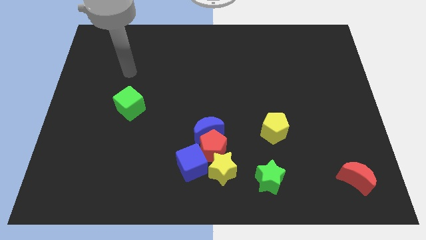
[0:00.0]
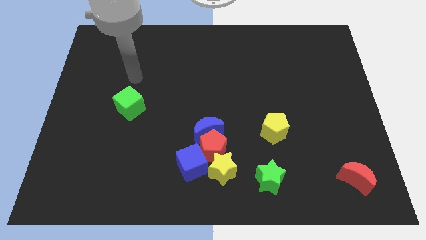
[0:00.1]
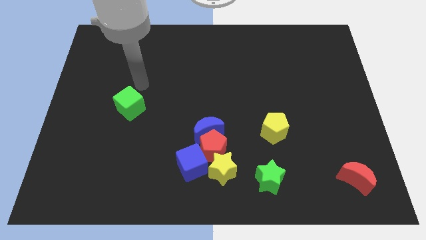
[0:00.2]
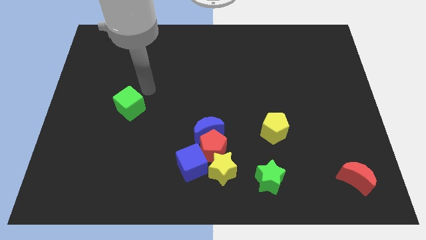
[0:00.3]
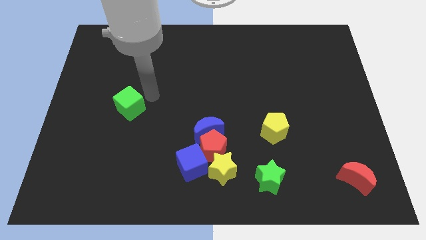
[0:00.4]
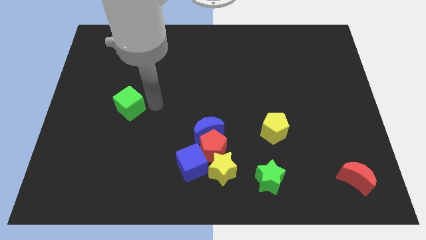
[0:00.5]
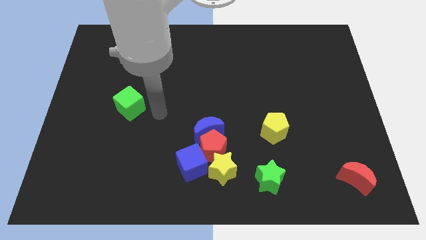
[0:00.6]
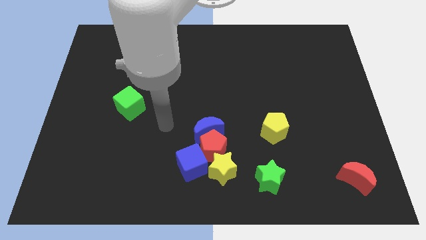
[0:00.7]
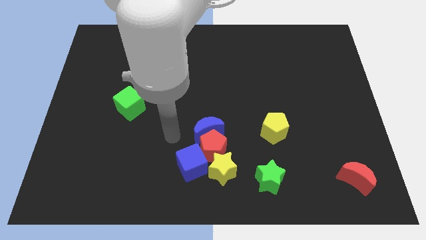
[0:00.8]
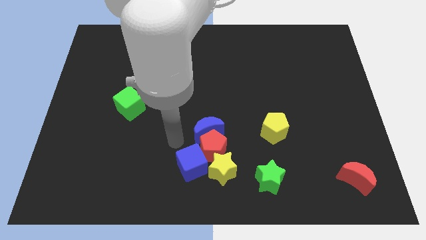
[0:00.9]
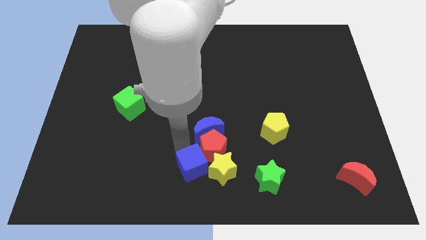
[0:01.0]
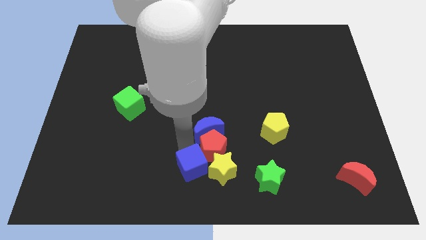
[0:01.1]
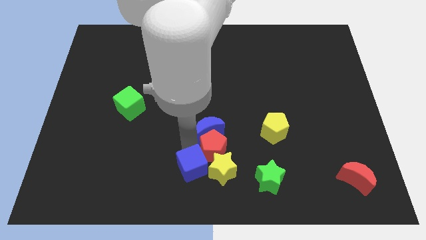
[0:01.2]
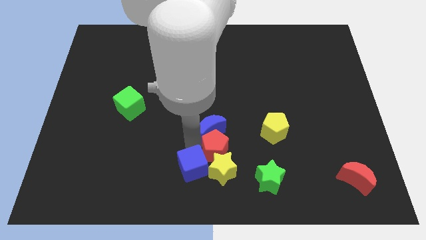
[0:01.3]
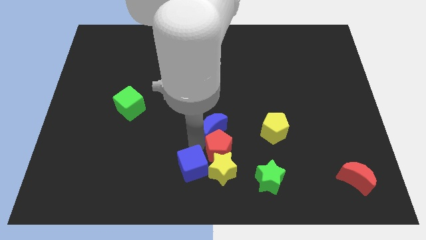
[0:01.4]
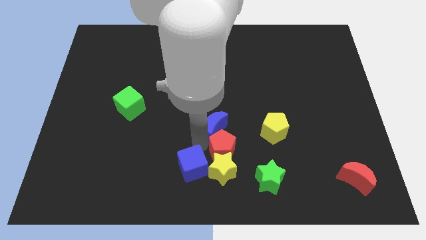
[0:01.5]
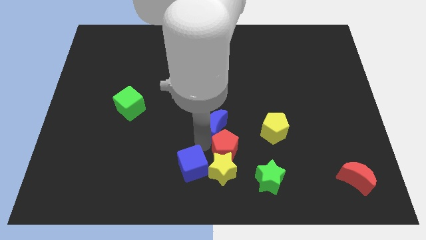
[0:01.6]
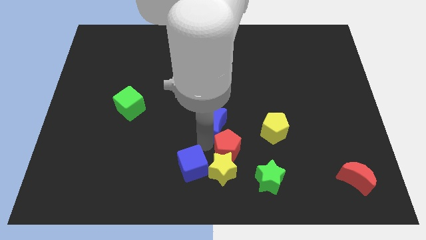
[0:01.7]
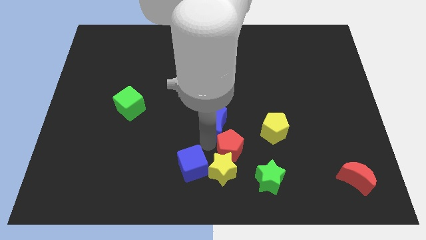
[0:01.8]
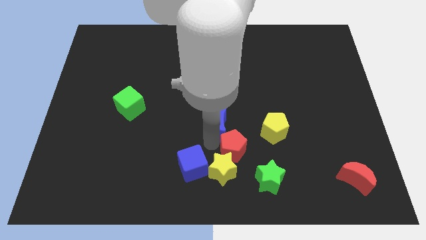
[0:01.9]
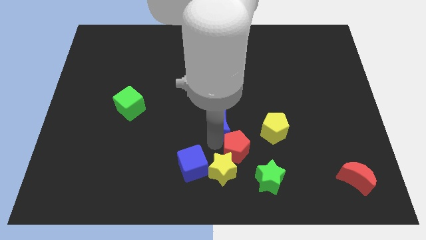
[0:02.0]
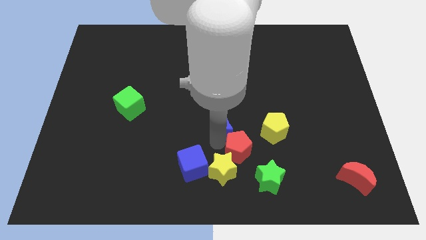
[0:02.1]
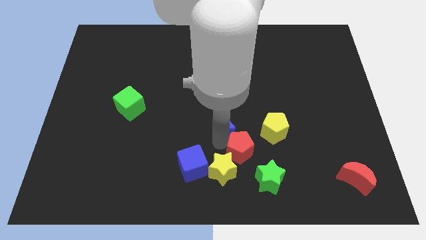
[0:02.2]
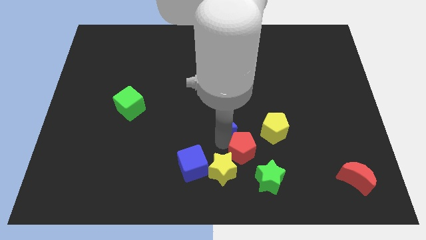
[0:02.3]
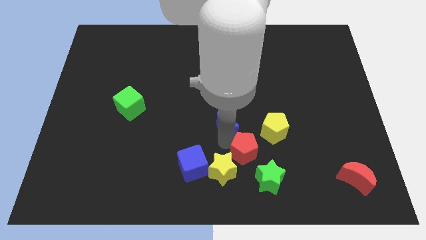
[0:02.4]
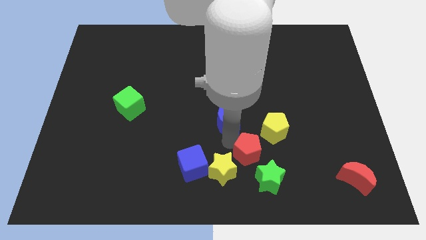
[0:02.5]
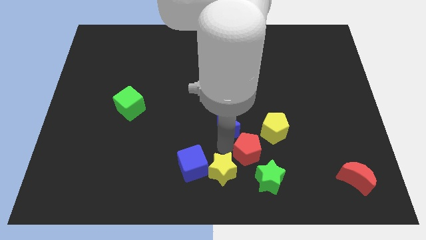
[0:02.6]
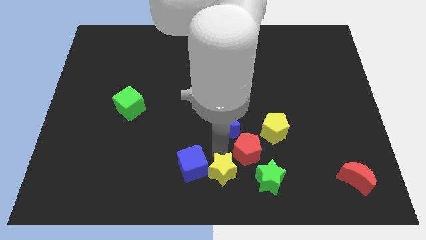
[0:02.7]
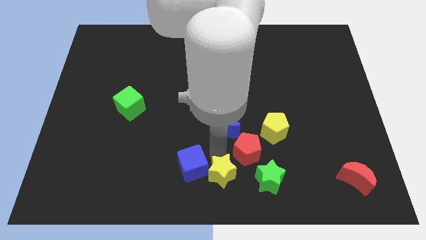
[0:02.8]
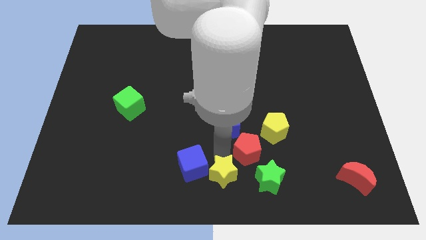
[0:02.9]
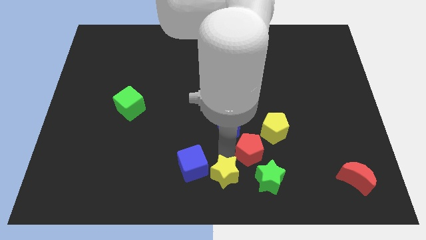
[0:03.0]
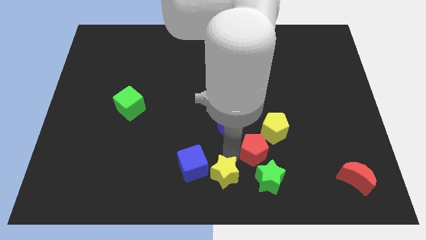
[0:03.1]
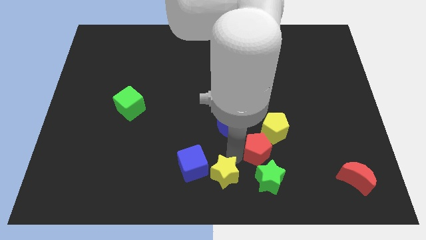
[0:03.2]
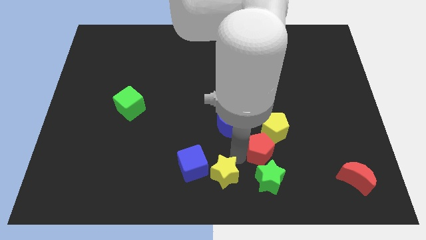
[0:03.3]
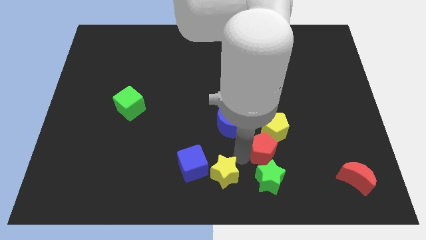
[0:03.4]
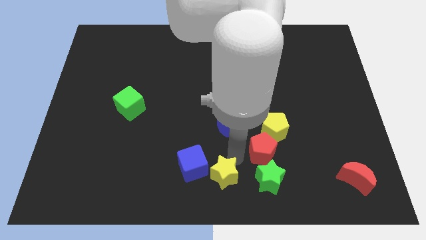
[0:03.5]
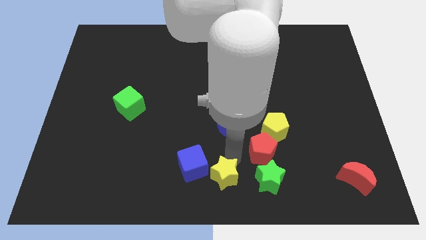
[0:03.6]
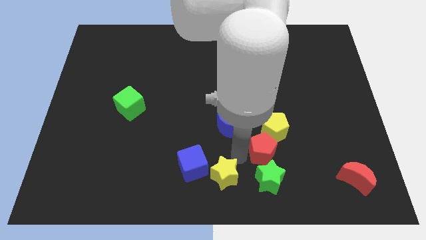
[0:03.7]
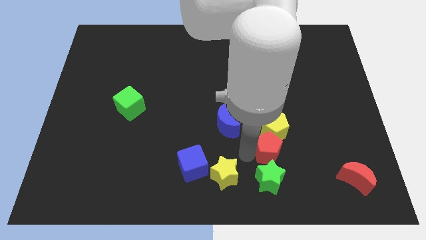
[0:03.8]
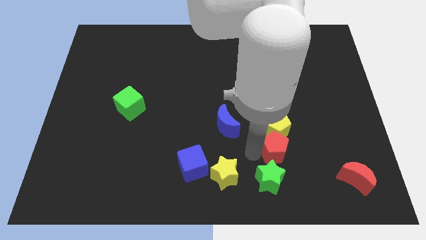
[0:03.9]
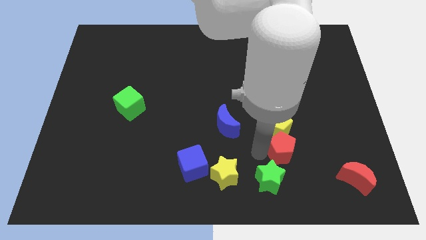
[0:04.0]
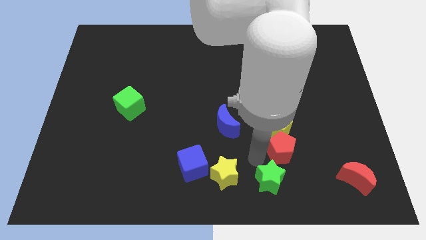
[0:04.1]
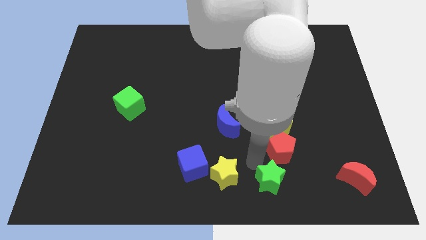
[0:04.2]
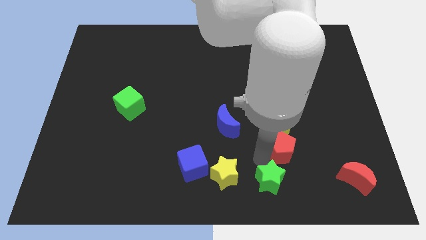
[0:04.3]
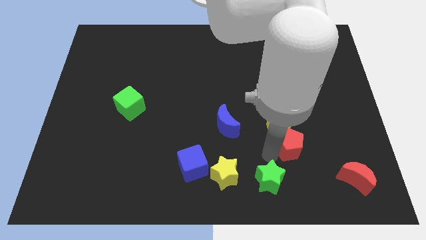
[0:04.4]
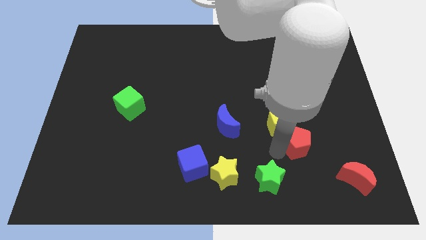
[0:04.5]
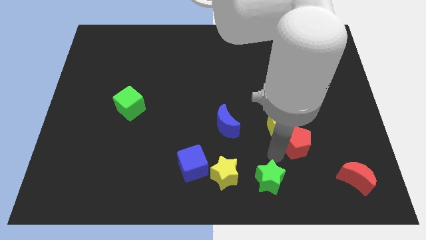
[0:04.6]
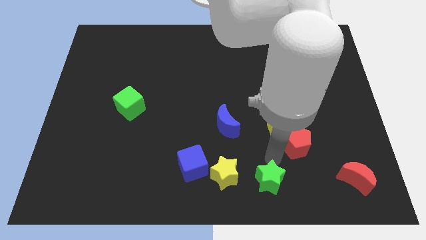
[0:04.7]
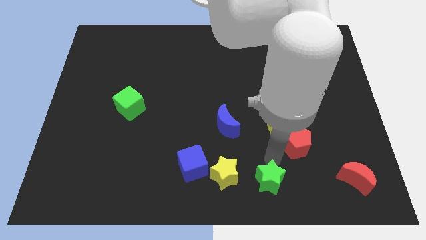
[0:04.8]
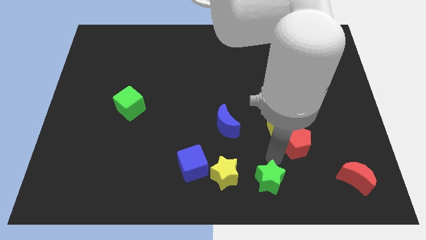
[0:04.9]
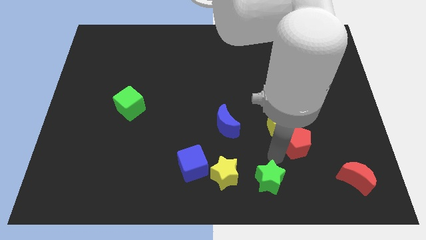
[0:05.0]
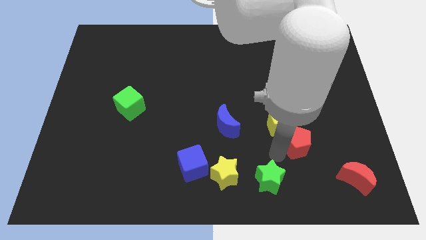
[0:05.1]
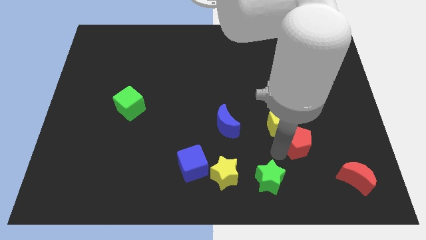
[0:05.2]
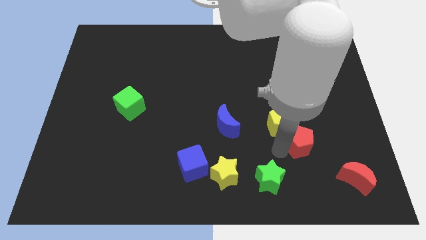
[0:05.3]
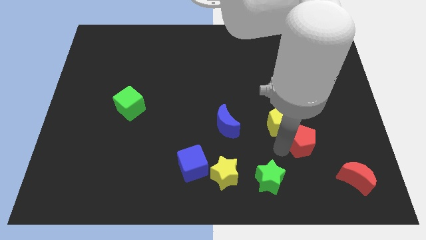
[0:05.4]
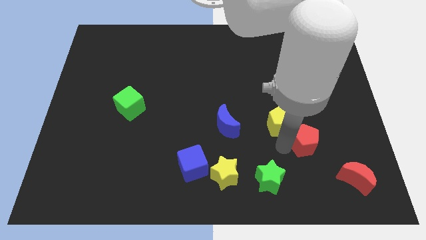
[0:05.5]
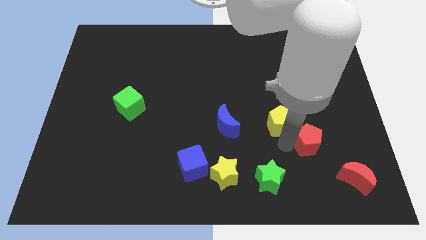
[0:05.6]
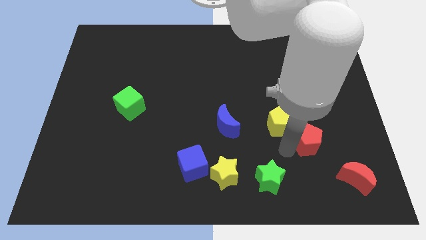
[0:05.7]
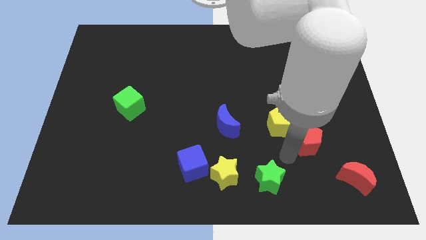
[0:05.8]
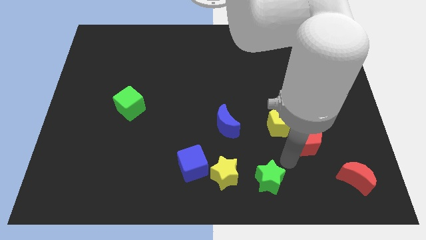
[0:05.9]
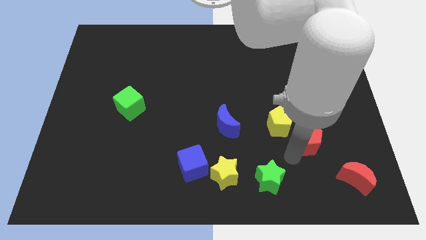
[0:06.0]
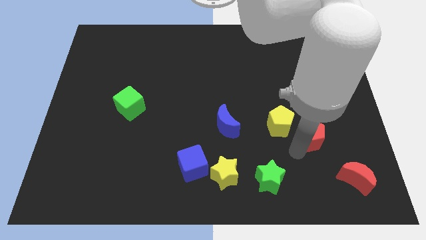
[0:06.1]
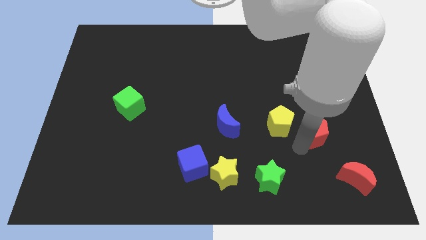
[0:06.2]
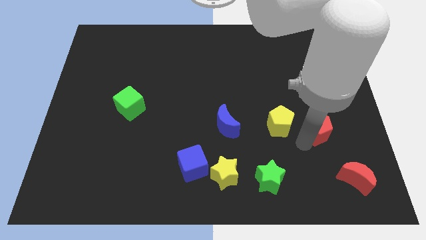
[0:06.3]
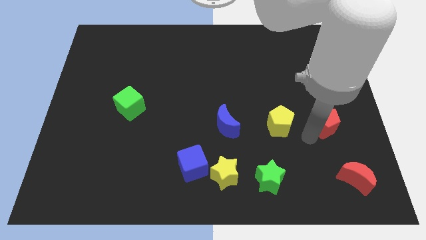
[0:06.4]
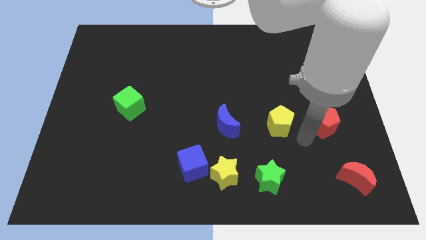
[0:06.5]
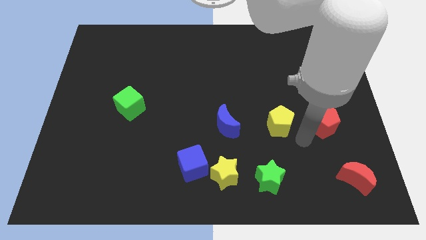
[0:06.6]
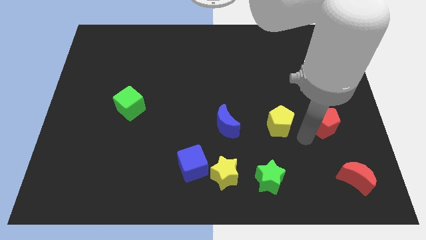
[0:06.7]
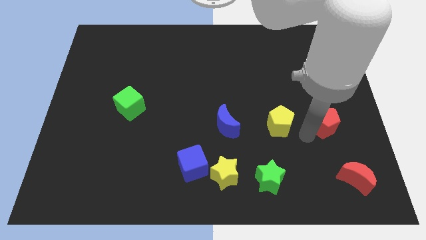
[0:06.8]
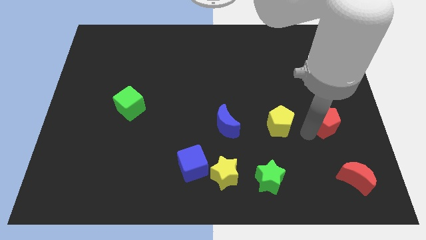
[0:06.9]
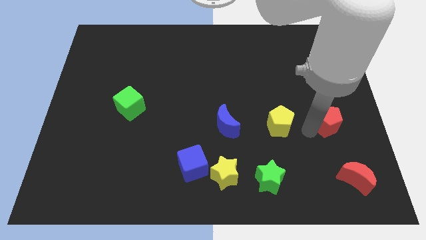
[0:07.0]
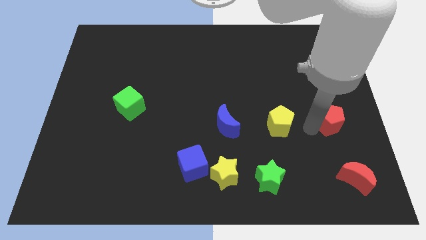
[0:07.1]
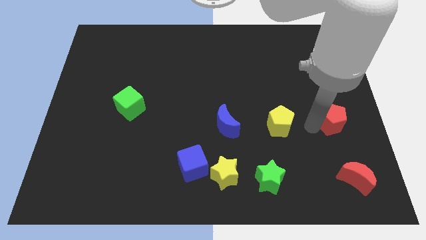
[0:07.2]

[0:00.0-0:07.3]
push the red pentagon to the center right

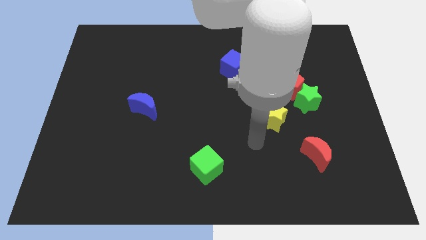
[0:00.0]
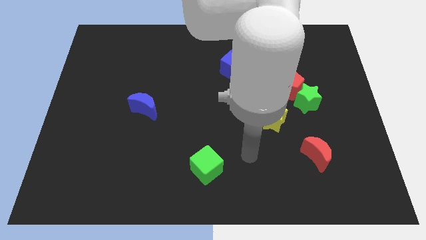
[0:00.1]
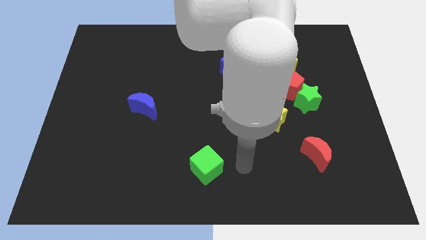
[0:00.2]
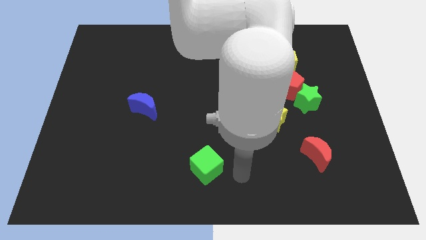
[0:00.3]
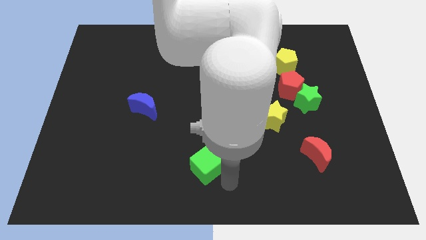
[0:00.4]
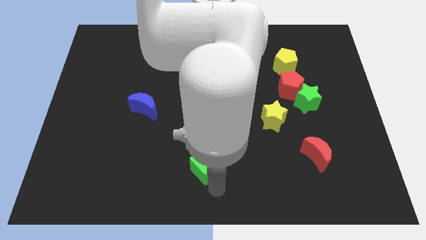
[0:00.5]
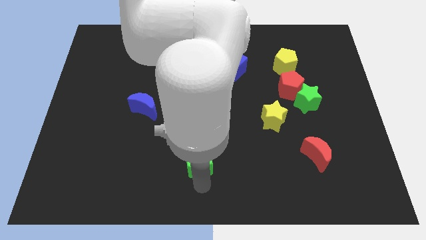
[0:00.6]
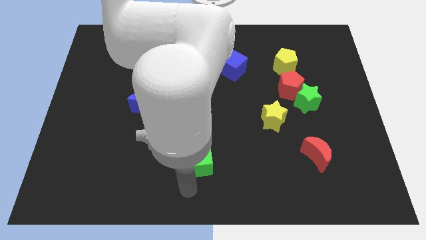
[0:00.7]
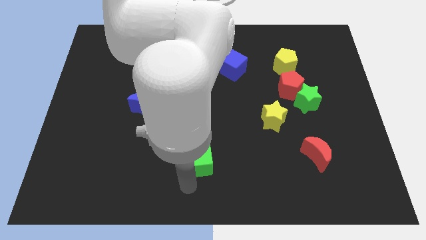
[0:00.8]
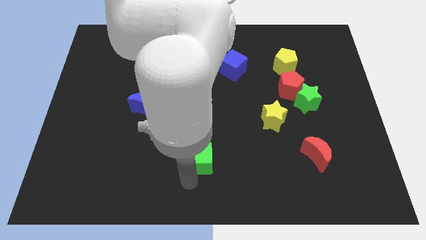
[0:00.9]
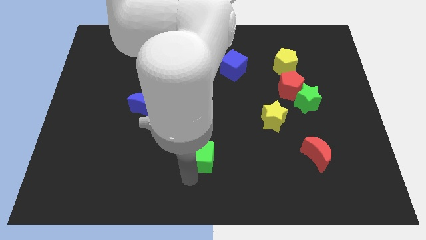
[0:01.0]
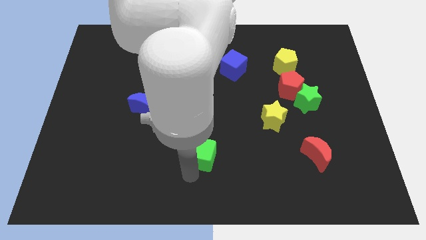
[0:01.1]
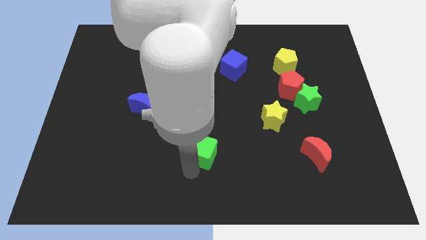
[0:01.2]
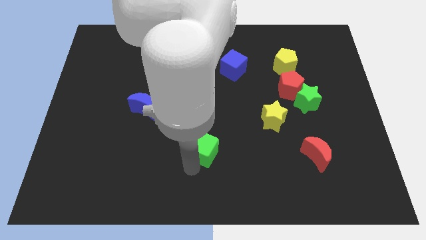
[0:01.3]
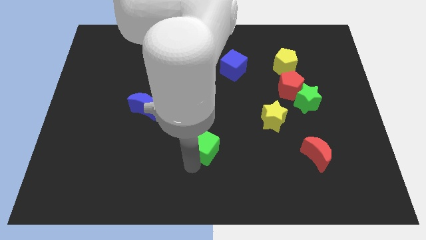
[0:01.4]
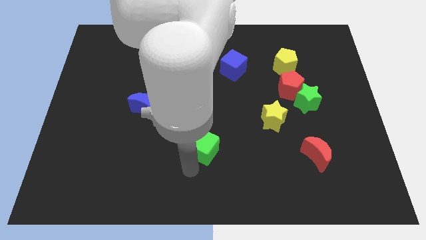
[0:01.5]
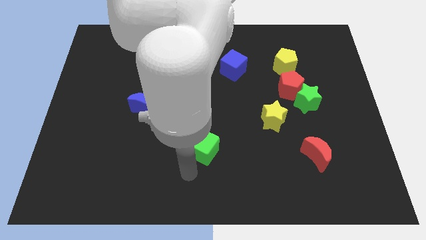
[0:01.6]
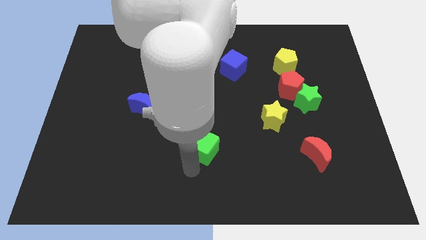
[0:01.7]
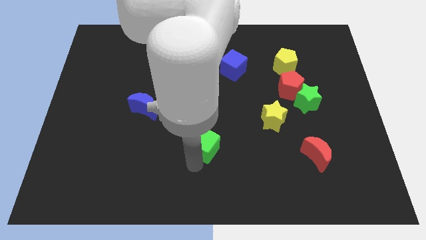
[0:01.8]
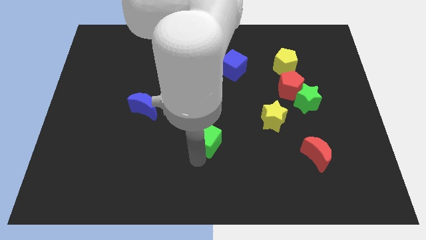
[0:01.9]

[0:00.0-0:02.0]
move the green cube to the center of the board
